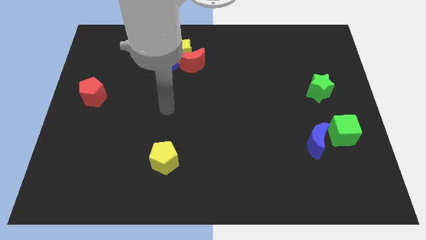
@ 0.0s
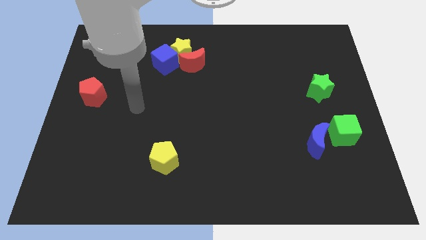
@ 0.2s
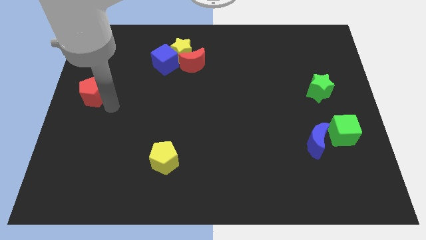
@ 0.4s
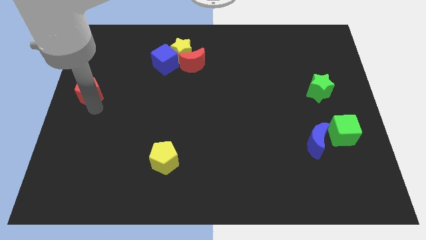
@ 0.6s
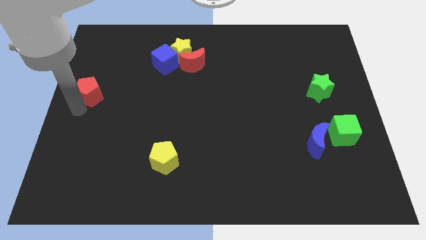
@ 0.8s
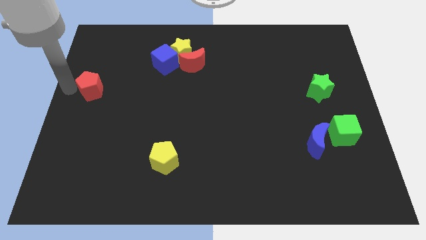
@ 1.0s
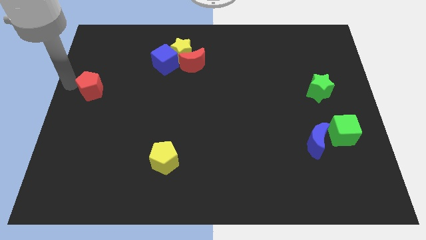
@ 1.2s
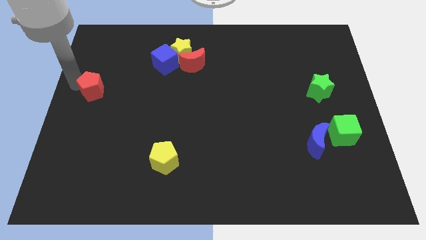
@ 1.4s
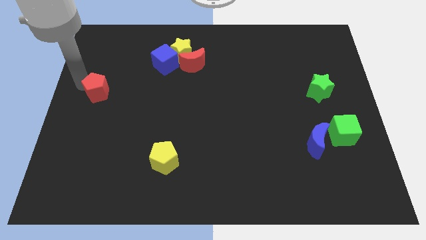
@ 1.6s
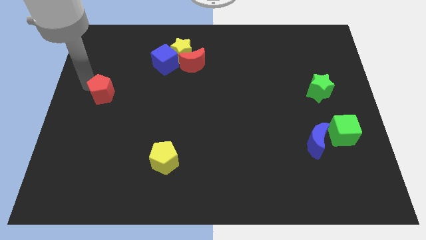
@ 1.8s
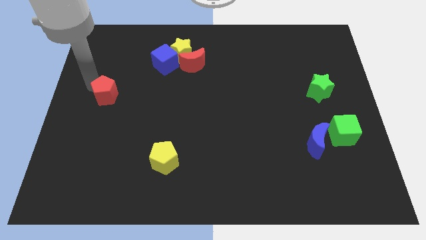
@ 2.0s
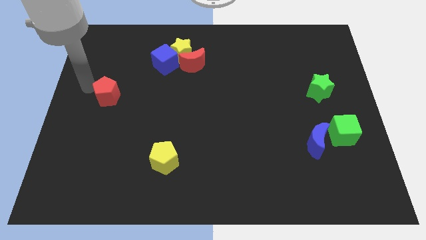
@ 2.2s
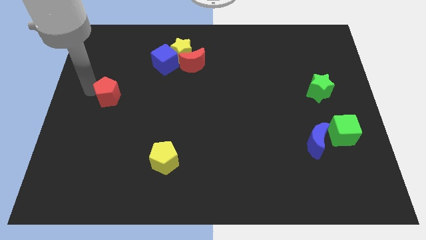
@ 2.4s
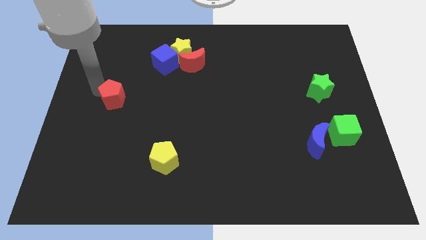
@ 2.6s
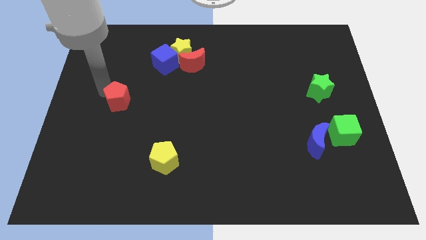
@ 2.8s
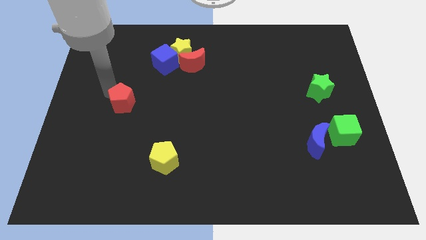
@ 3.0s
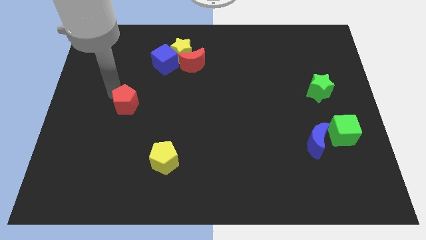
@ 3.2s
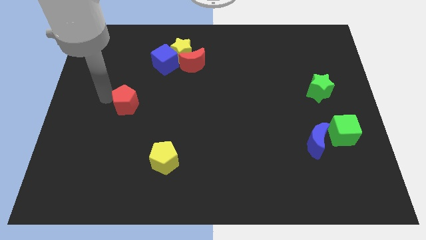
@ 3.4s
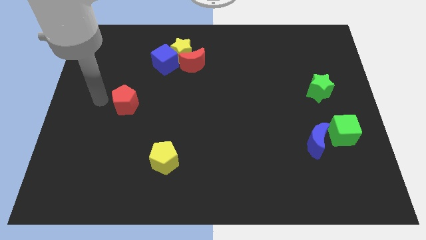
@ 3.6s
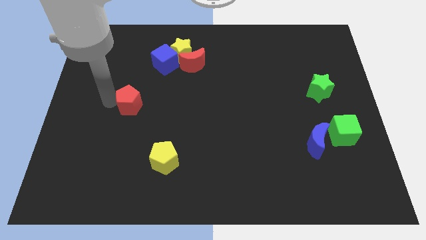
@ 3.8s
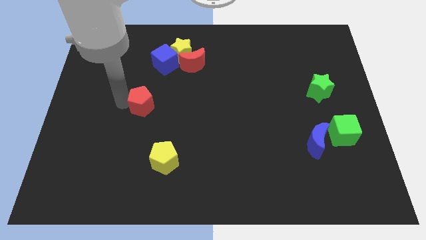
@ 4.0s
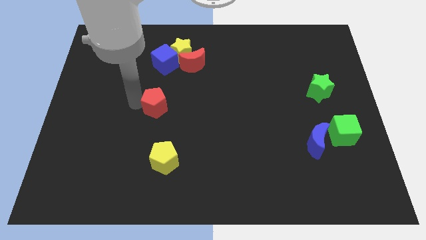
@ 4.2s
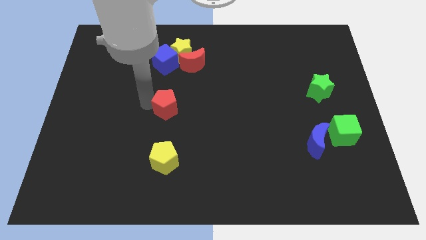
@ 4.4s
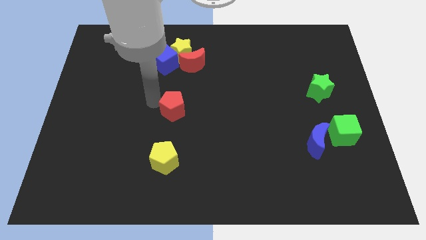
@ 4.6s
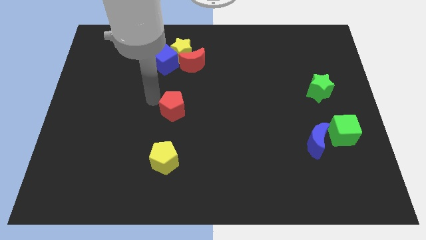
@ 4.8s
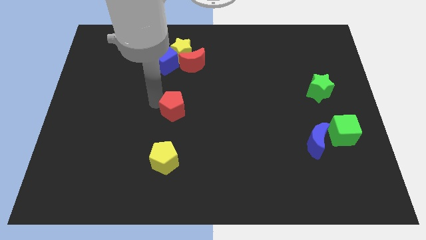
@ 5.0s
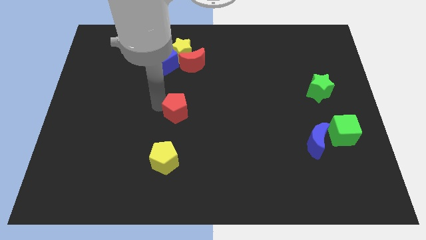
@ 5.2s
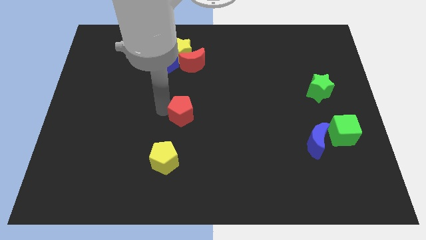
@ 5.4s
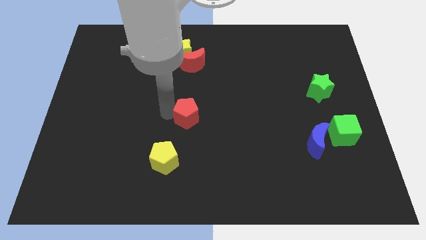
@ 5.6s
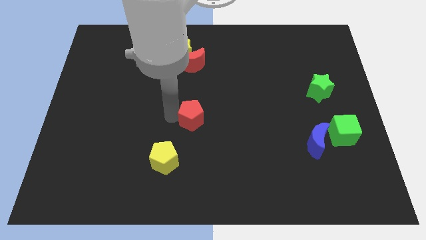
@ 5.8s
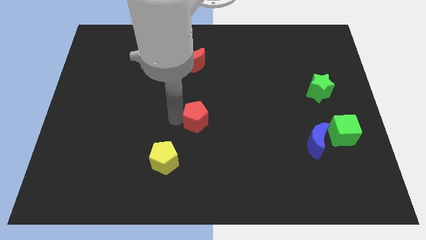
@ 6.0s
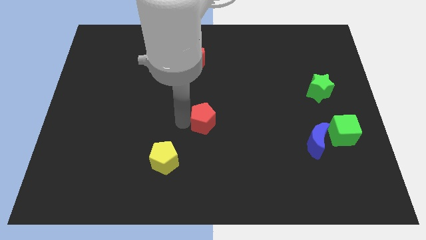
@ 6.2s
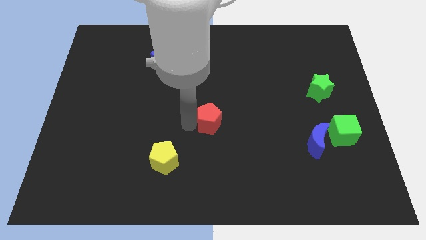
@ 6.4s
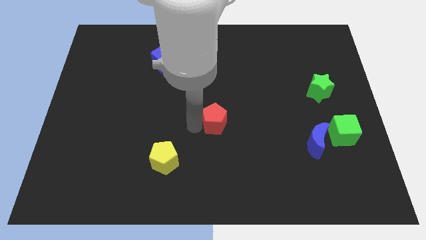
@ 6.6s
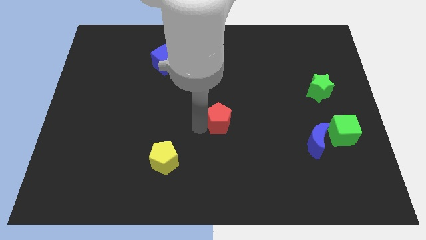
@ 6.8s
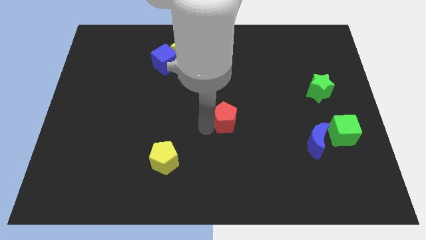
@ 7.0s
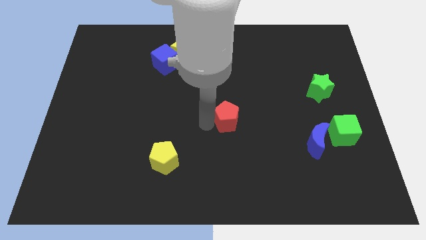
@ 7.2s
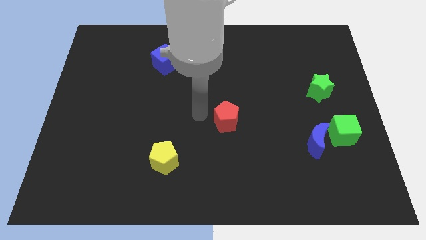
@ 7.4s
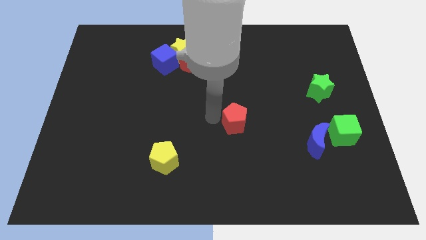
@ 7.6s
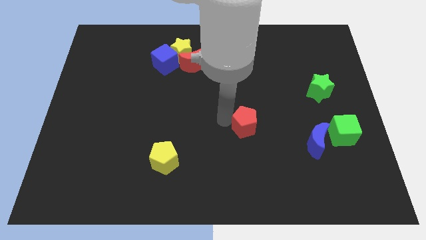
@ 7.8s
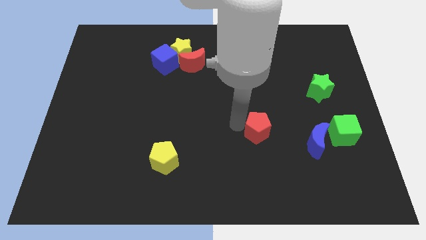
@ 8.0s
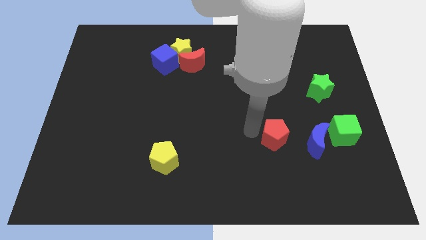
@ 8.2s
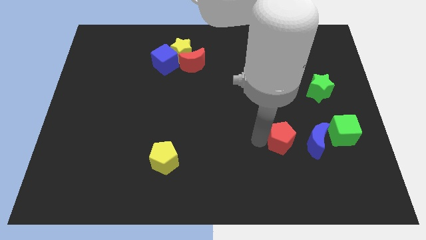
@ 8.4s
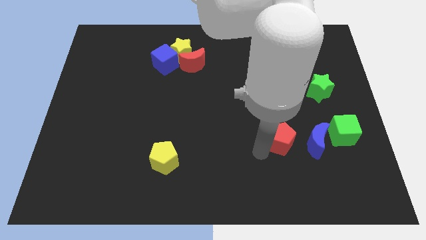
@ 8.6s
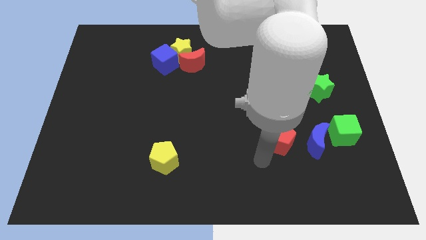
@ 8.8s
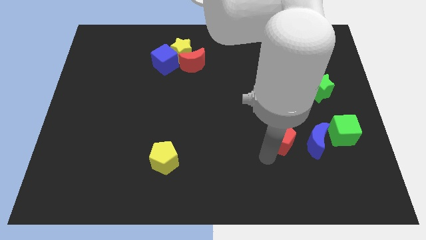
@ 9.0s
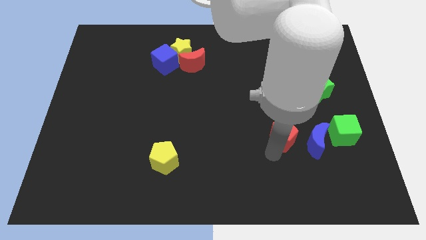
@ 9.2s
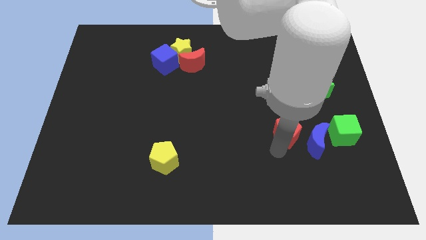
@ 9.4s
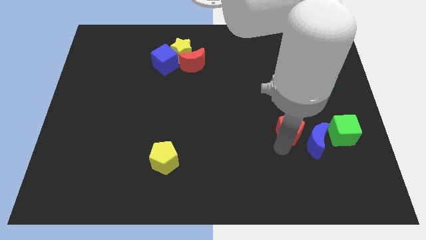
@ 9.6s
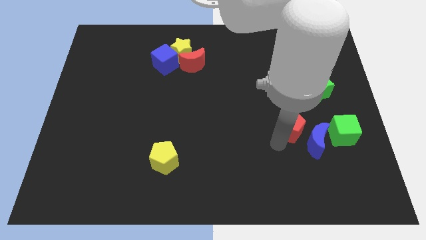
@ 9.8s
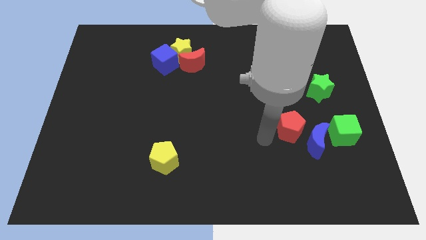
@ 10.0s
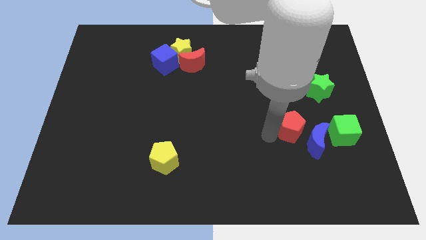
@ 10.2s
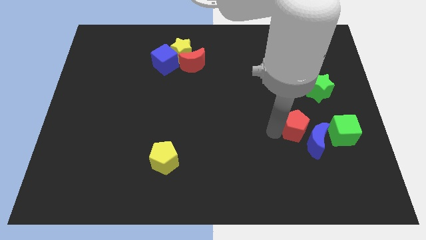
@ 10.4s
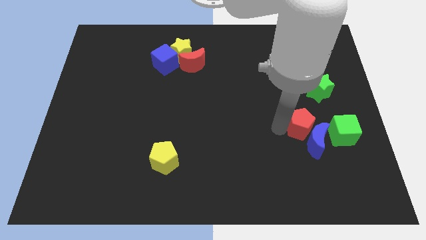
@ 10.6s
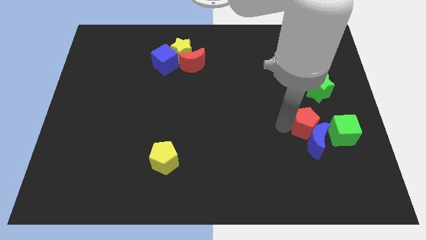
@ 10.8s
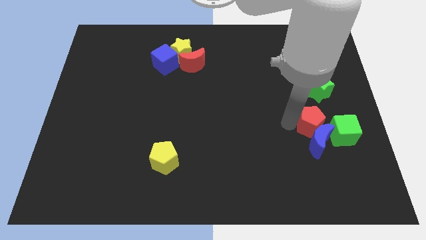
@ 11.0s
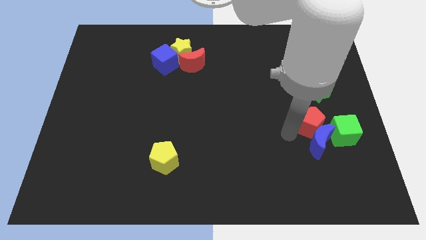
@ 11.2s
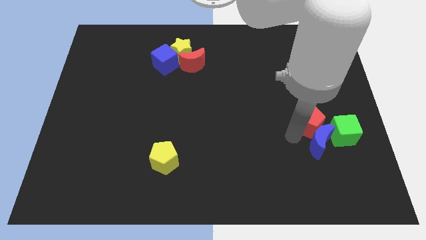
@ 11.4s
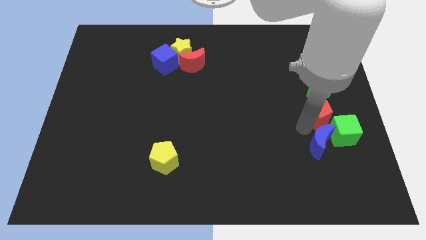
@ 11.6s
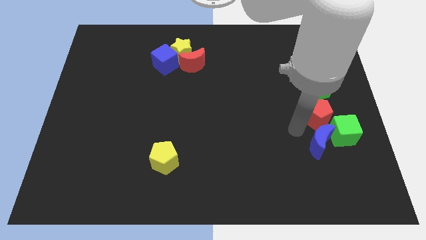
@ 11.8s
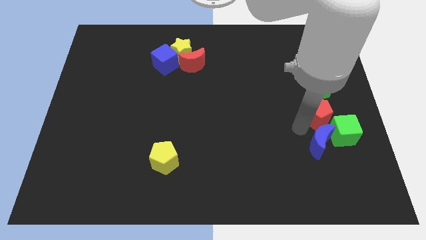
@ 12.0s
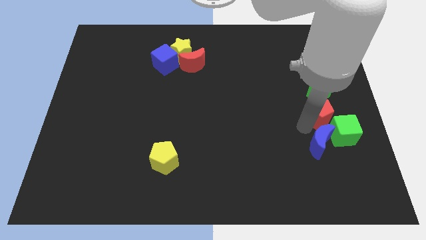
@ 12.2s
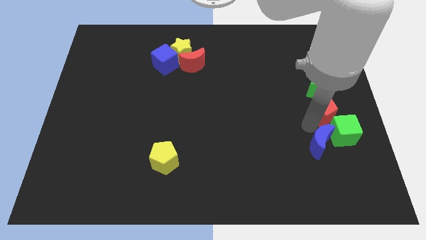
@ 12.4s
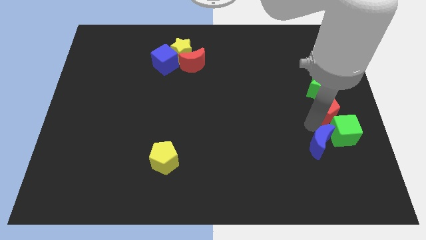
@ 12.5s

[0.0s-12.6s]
move the red pentagon to the center right
